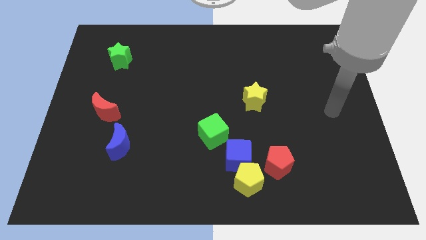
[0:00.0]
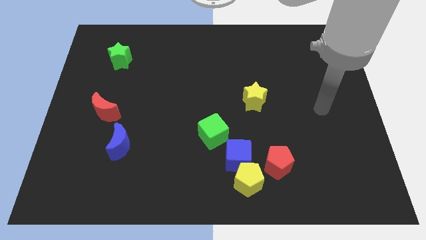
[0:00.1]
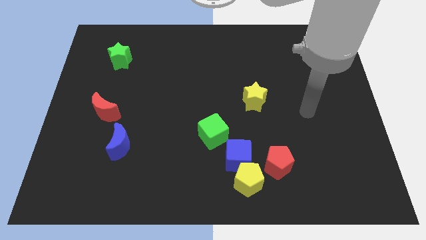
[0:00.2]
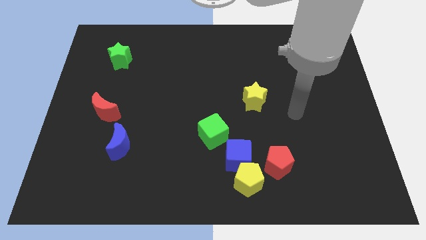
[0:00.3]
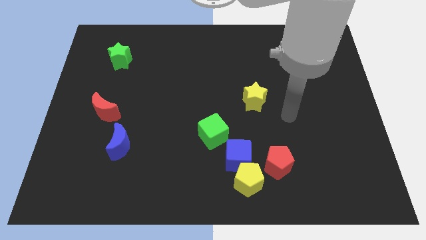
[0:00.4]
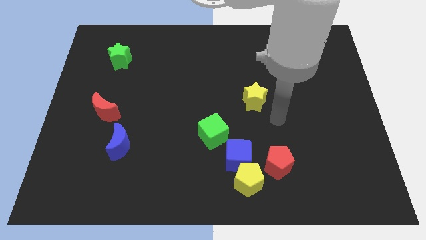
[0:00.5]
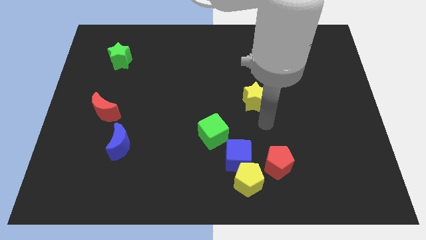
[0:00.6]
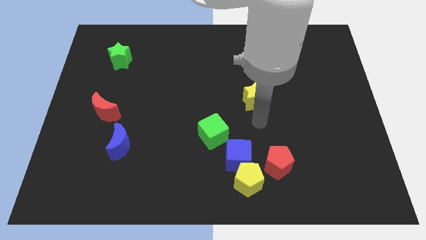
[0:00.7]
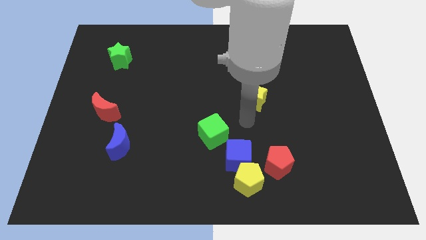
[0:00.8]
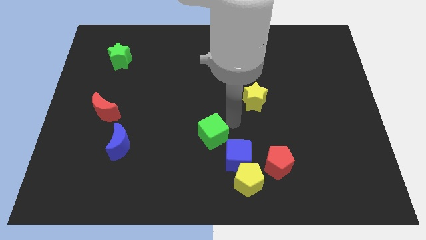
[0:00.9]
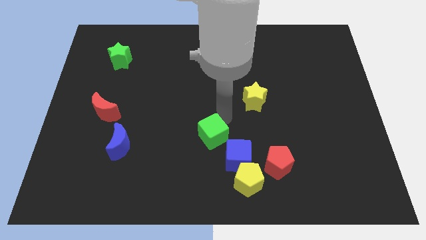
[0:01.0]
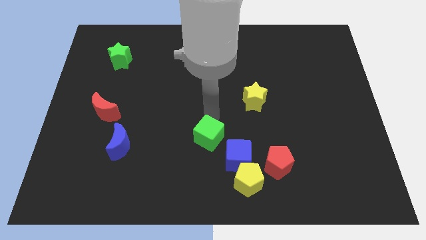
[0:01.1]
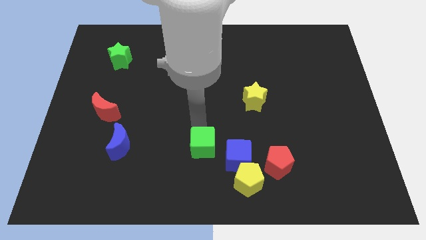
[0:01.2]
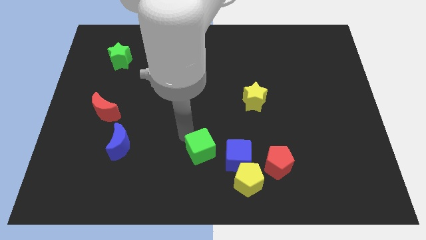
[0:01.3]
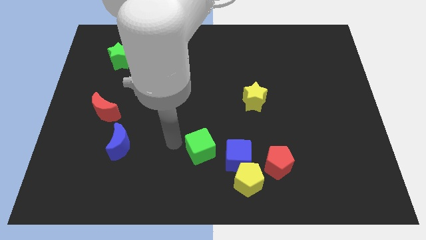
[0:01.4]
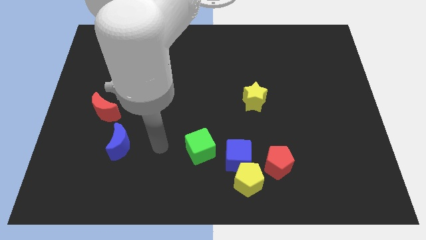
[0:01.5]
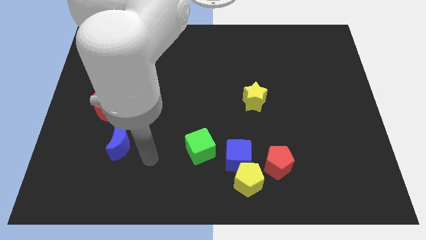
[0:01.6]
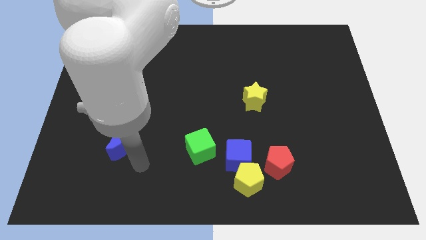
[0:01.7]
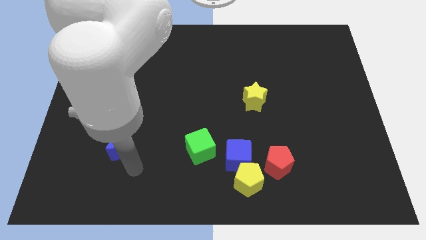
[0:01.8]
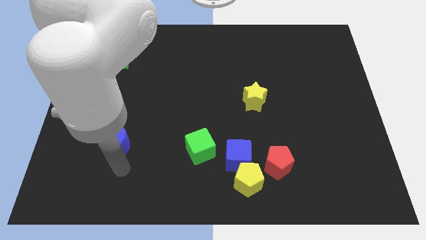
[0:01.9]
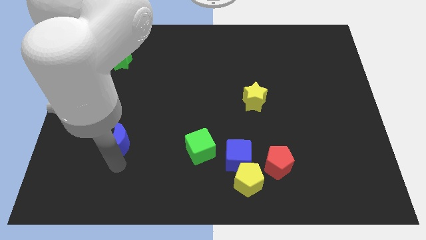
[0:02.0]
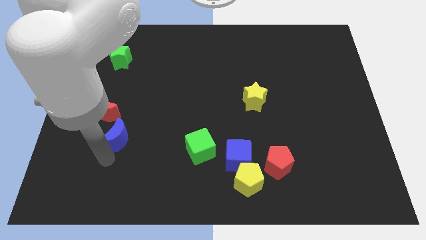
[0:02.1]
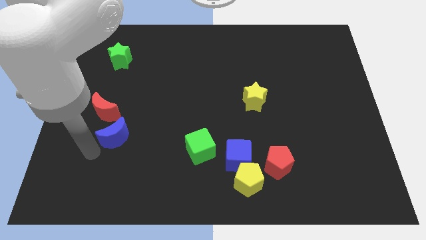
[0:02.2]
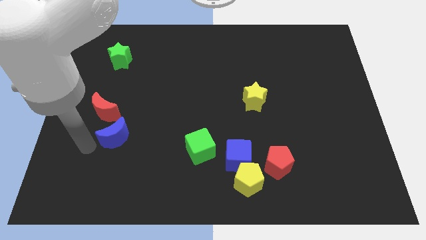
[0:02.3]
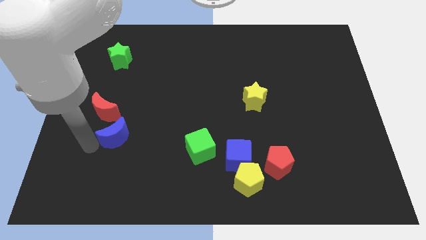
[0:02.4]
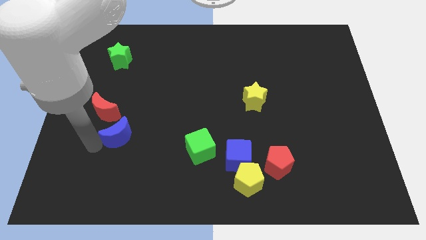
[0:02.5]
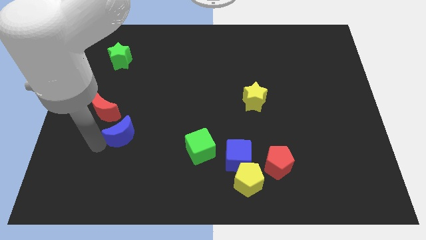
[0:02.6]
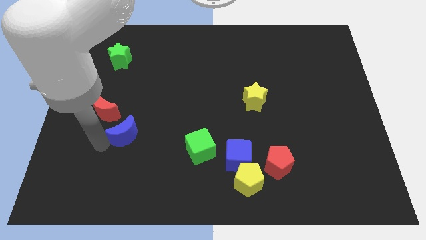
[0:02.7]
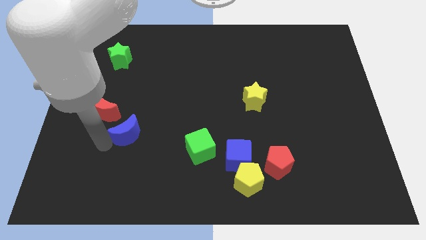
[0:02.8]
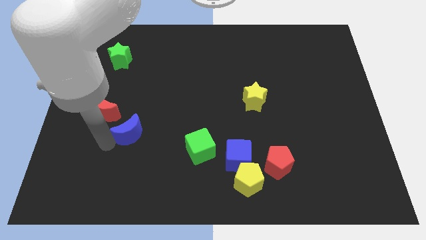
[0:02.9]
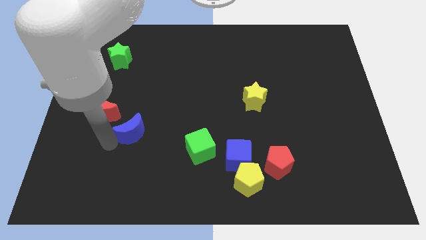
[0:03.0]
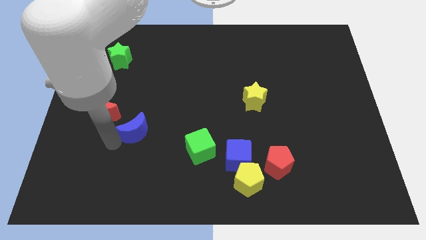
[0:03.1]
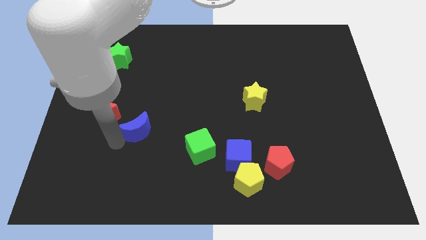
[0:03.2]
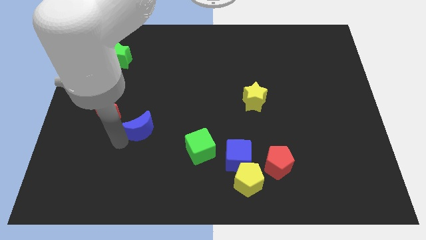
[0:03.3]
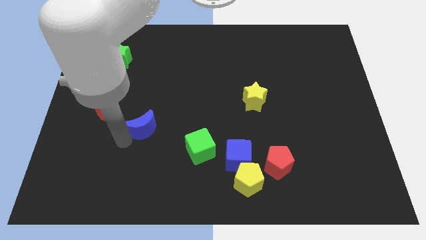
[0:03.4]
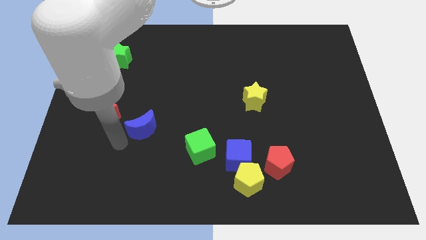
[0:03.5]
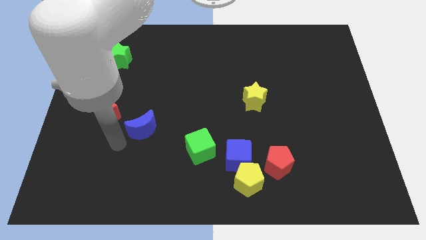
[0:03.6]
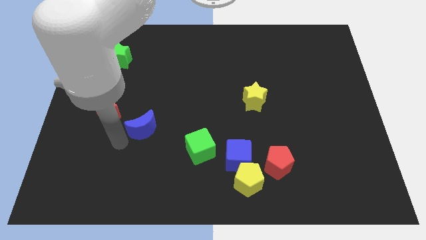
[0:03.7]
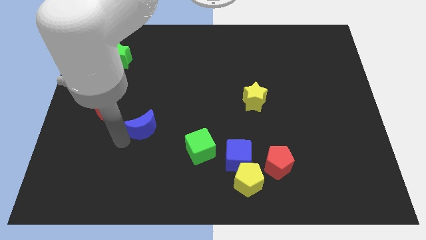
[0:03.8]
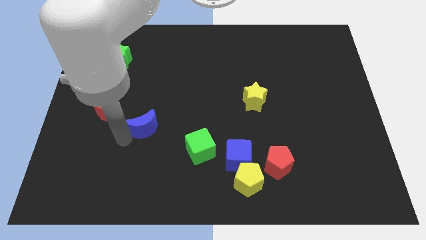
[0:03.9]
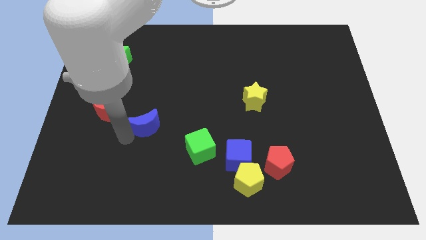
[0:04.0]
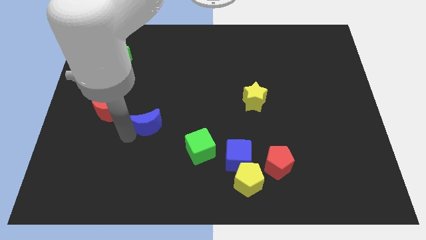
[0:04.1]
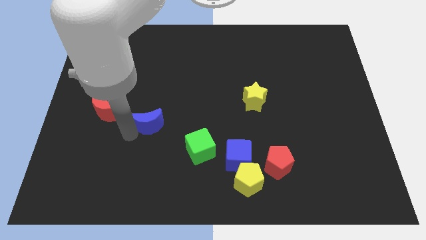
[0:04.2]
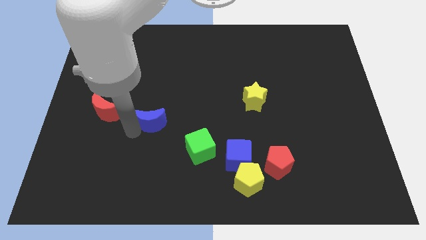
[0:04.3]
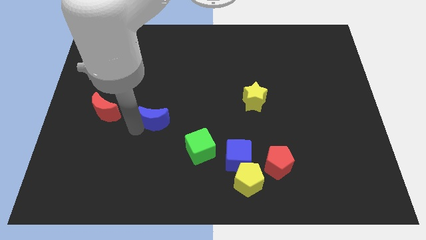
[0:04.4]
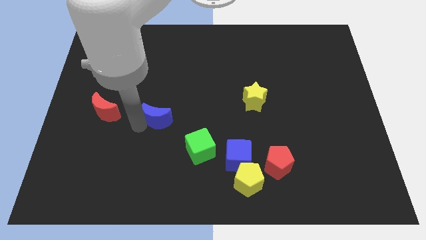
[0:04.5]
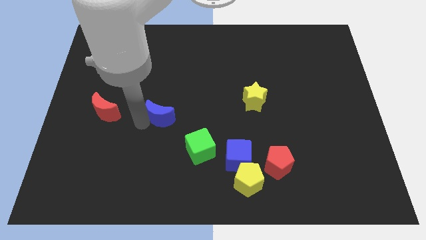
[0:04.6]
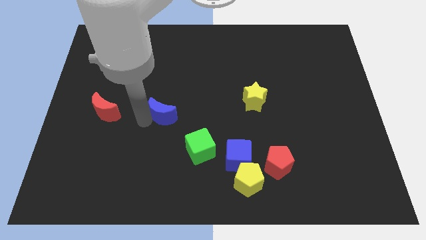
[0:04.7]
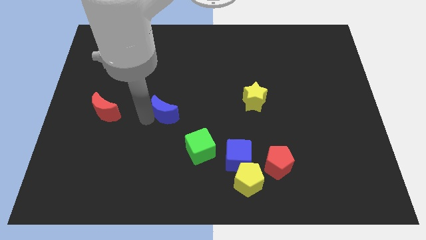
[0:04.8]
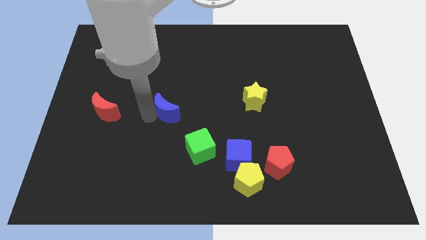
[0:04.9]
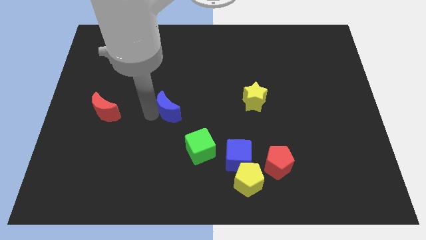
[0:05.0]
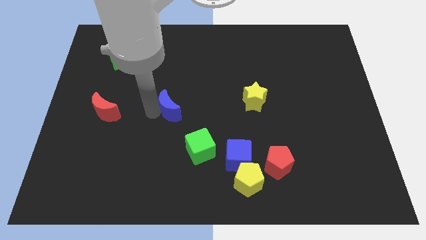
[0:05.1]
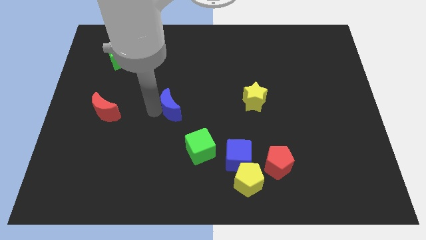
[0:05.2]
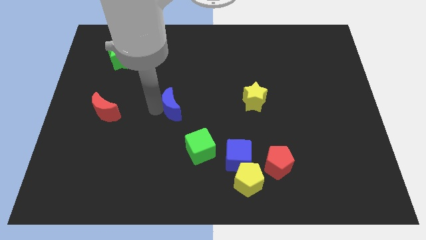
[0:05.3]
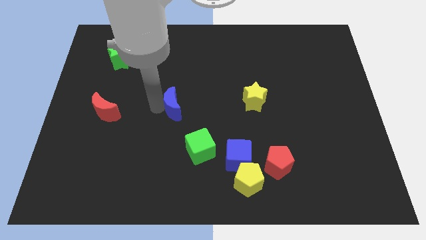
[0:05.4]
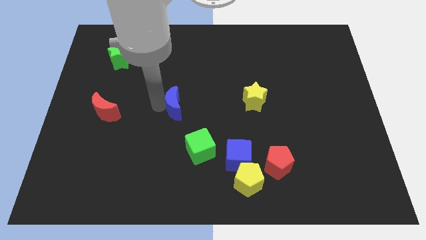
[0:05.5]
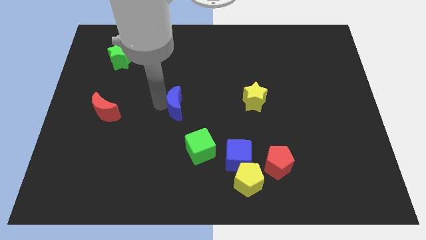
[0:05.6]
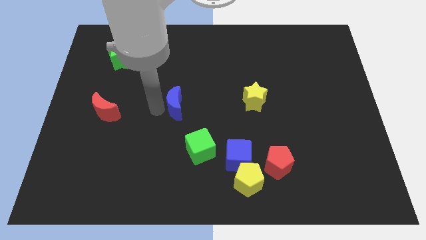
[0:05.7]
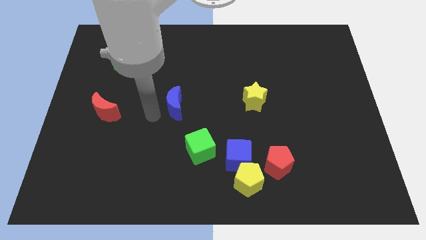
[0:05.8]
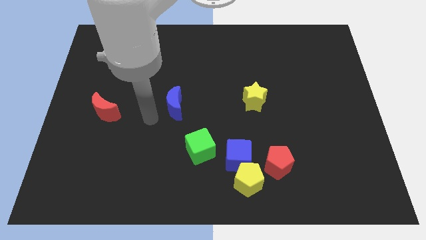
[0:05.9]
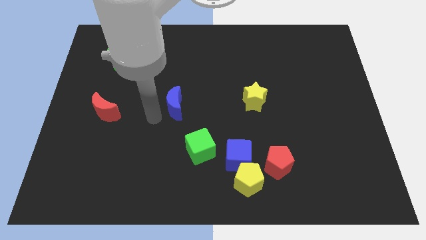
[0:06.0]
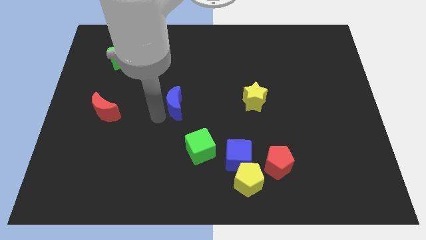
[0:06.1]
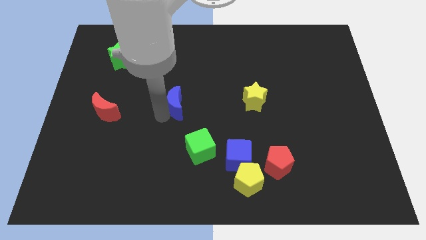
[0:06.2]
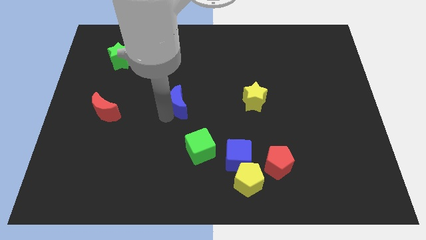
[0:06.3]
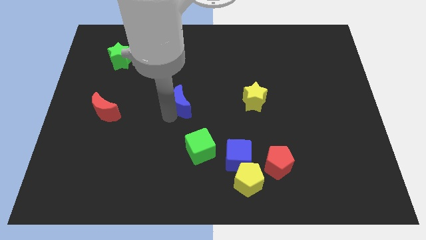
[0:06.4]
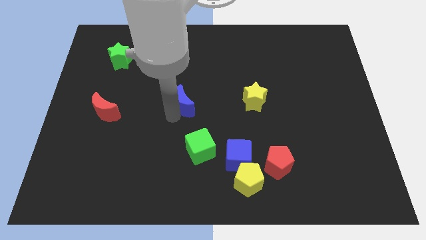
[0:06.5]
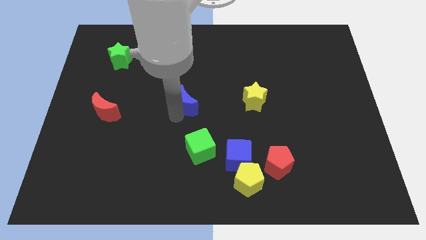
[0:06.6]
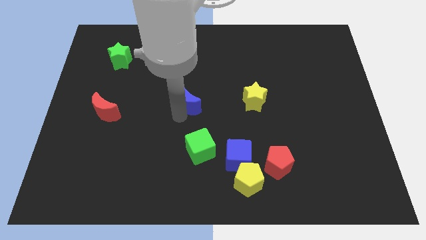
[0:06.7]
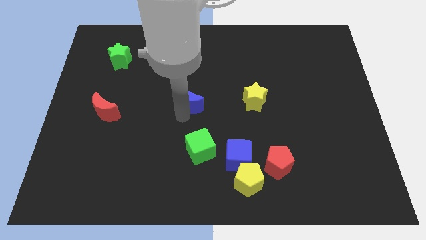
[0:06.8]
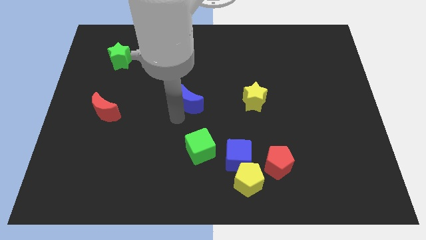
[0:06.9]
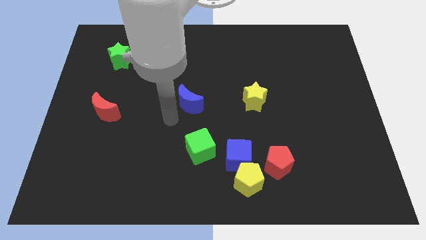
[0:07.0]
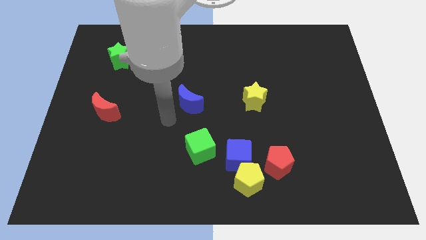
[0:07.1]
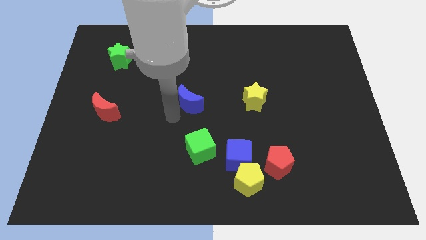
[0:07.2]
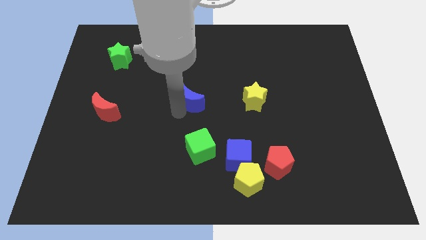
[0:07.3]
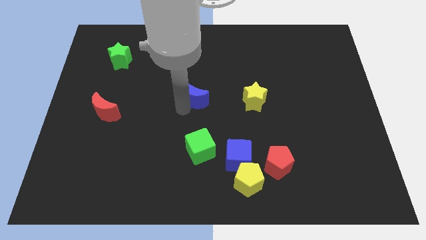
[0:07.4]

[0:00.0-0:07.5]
slide the blue moon diagonally upwards and right

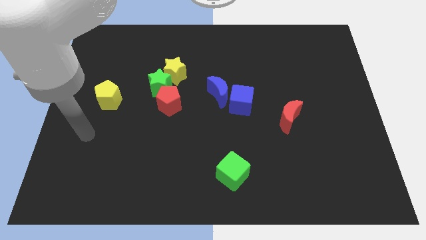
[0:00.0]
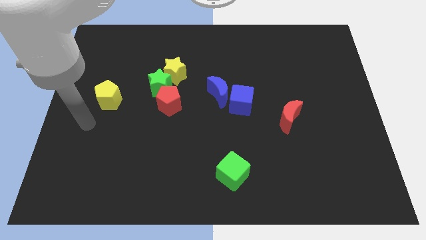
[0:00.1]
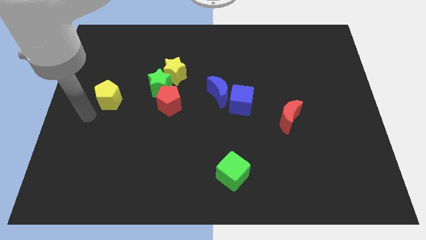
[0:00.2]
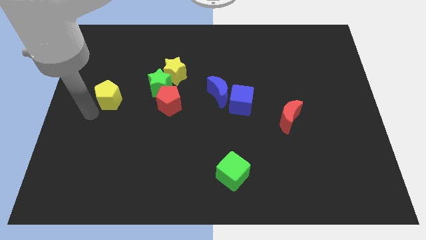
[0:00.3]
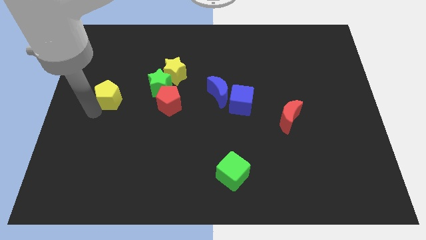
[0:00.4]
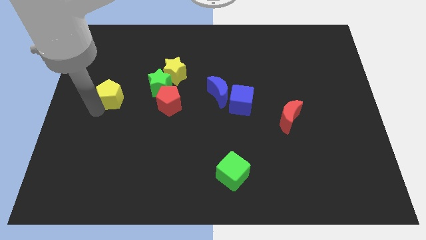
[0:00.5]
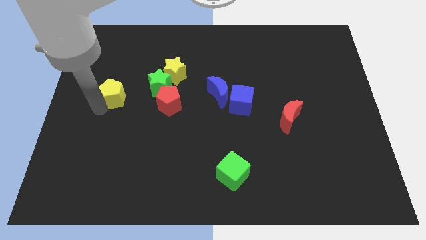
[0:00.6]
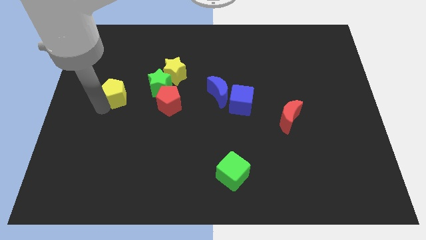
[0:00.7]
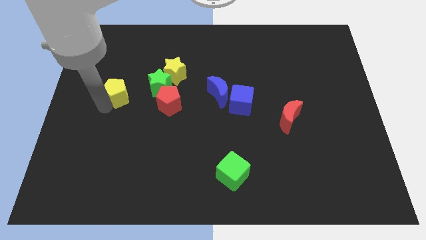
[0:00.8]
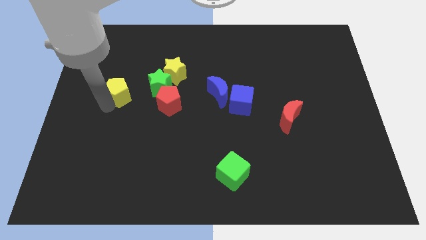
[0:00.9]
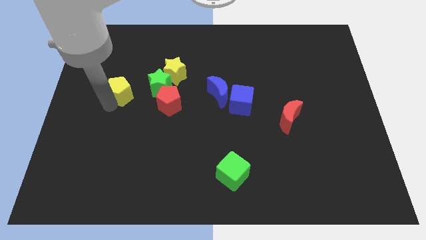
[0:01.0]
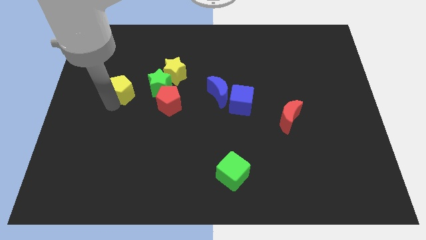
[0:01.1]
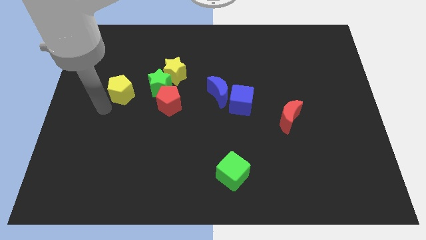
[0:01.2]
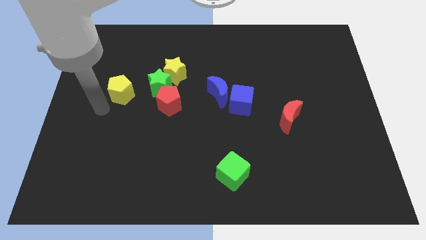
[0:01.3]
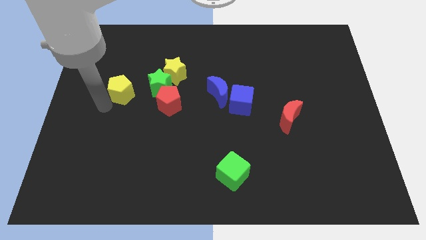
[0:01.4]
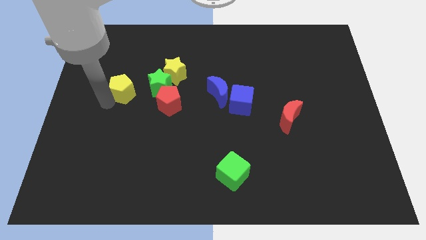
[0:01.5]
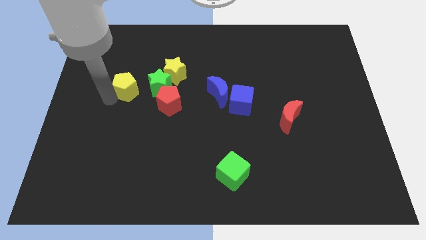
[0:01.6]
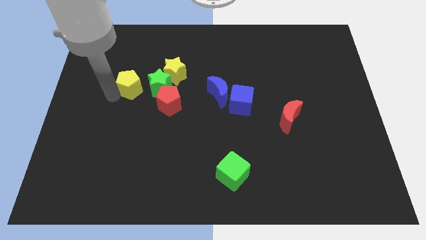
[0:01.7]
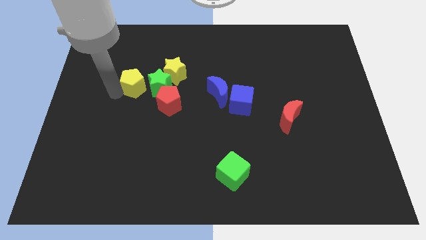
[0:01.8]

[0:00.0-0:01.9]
slide the yellow pentagon upwards and right a bit
